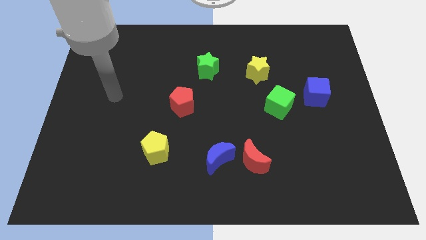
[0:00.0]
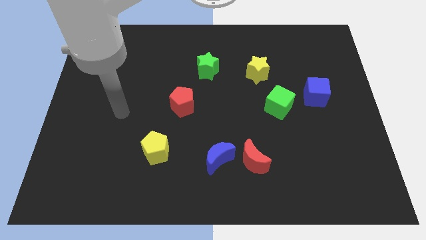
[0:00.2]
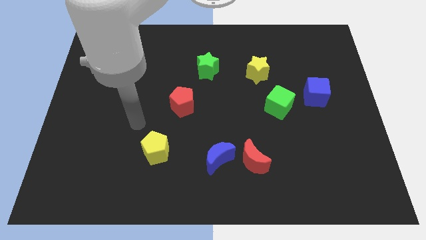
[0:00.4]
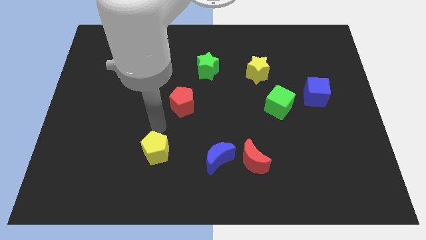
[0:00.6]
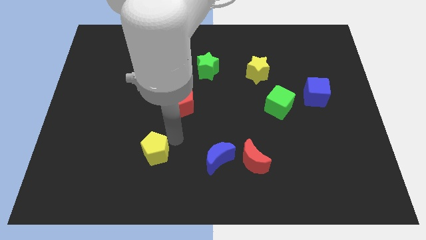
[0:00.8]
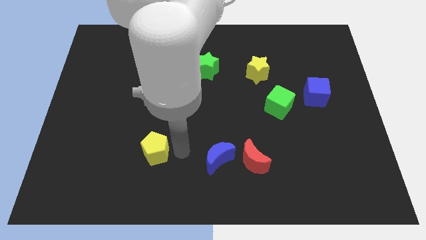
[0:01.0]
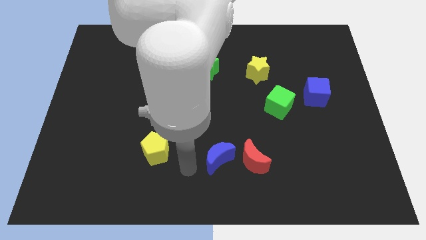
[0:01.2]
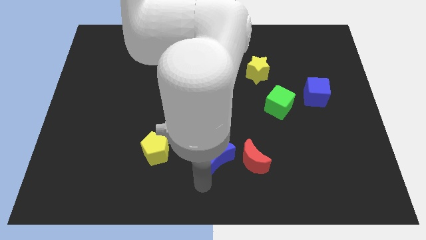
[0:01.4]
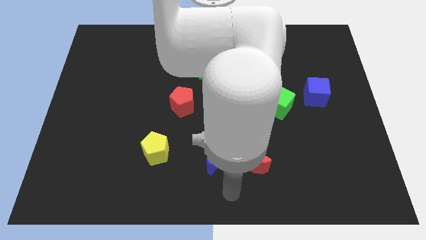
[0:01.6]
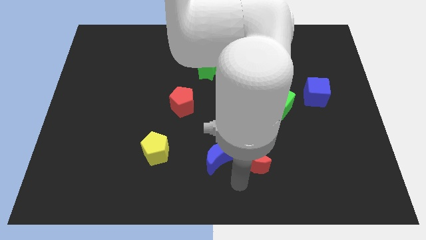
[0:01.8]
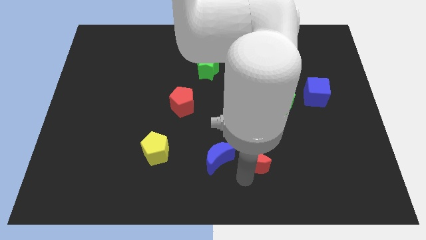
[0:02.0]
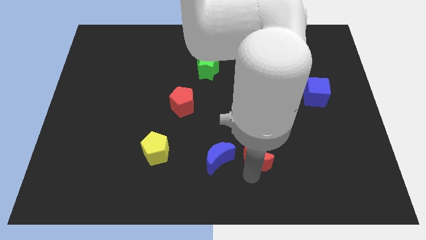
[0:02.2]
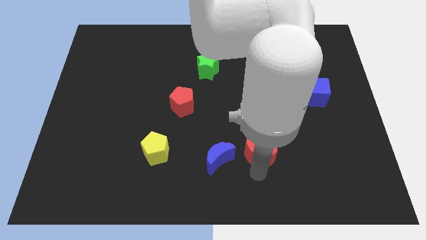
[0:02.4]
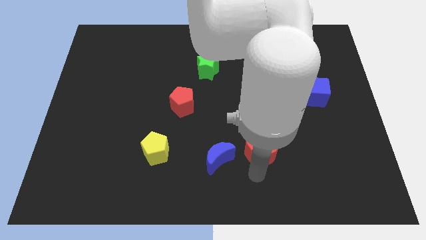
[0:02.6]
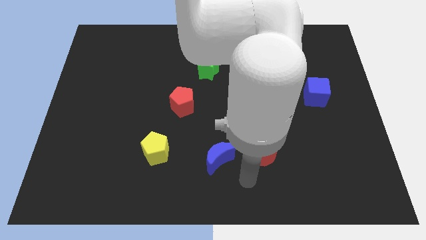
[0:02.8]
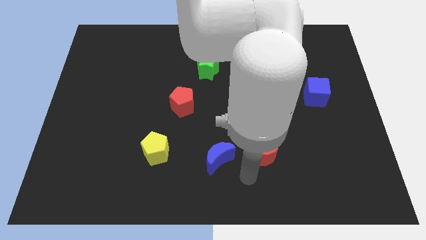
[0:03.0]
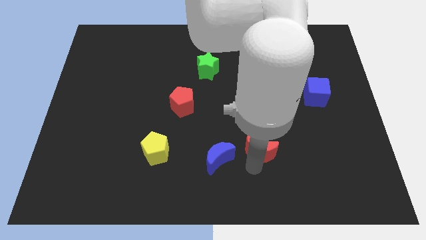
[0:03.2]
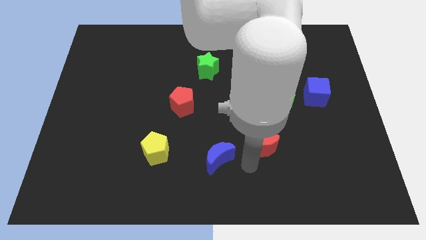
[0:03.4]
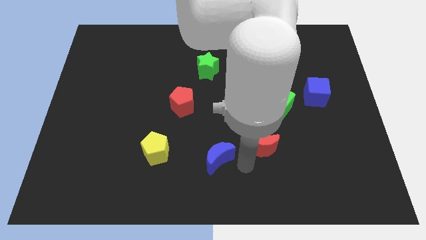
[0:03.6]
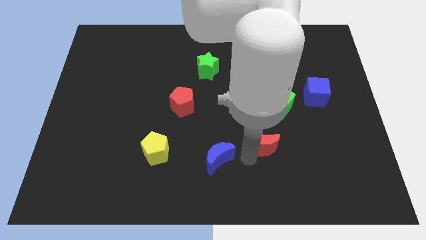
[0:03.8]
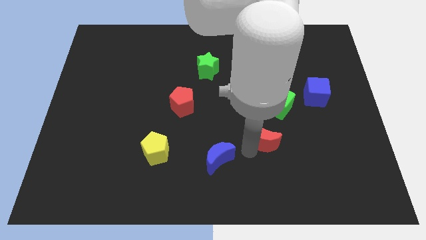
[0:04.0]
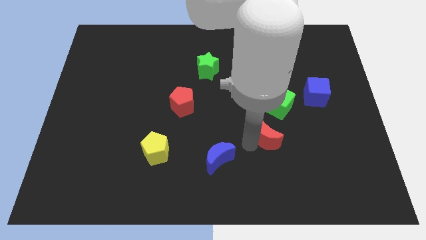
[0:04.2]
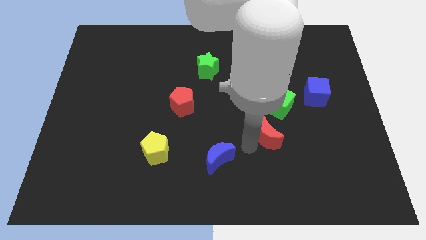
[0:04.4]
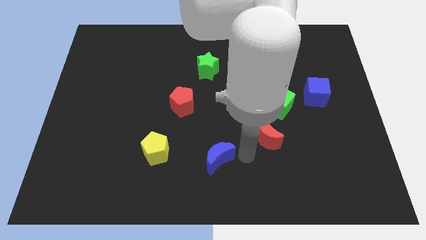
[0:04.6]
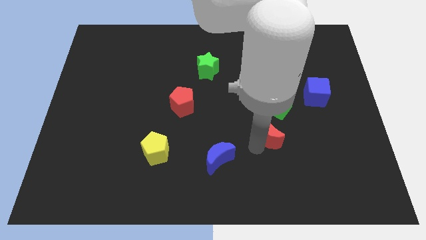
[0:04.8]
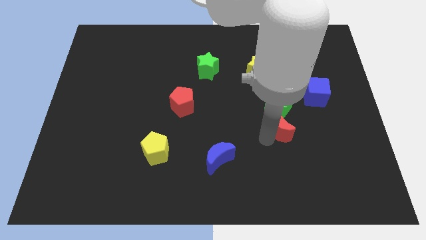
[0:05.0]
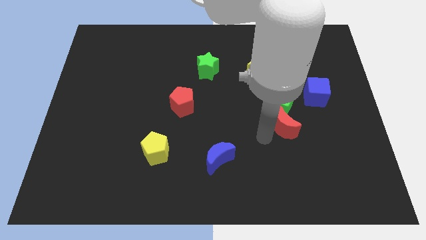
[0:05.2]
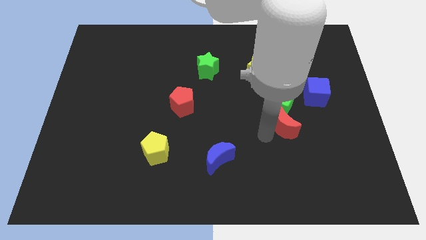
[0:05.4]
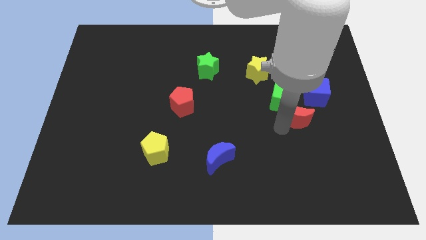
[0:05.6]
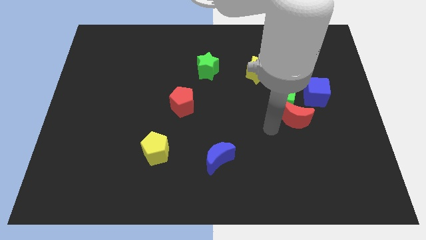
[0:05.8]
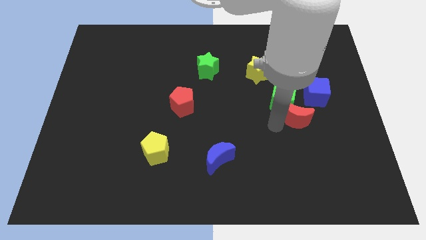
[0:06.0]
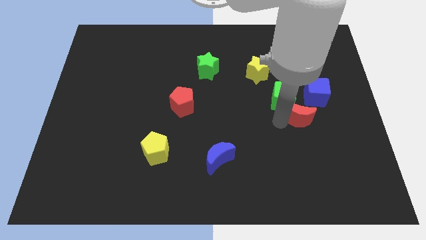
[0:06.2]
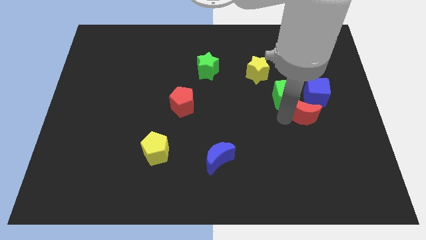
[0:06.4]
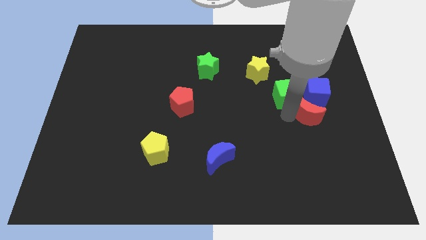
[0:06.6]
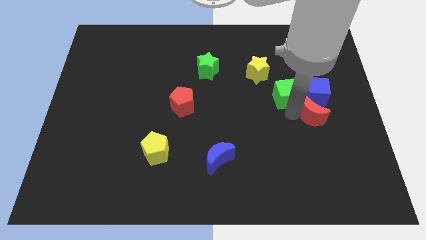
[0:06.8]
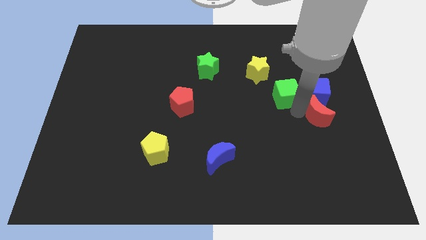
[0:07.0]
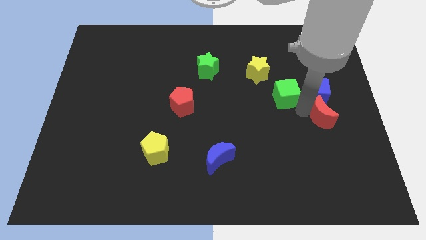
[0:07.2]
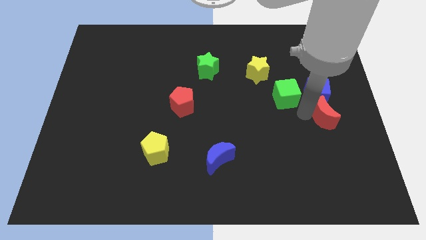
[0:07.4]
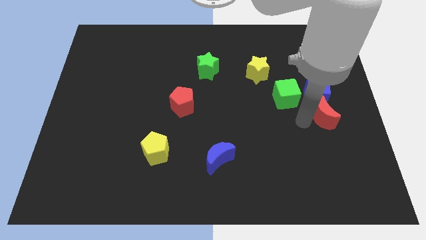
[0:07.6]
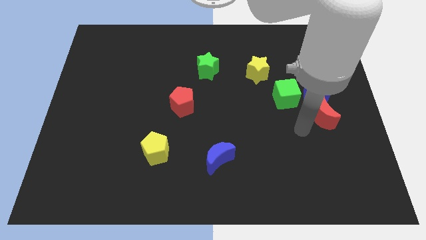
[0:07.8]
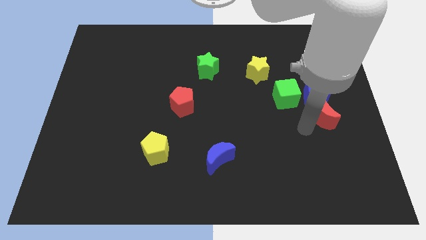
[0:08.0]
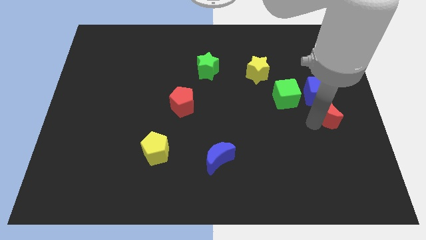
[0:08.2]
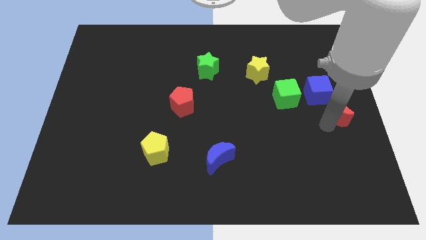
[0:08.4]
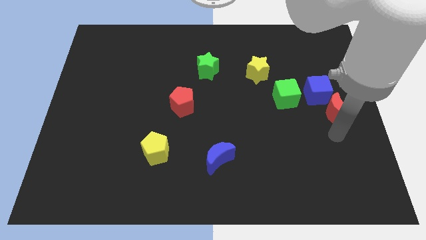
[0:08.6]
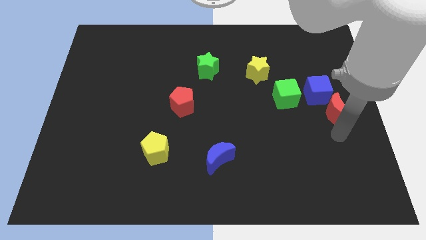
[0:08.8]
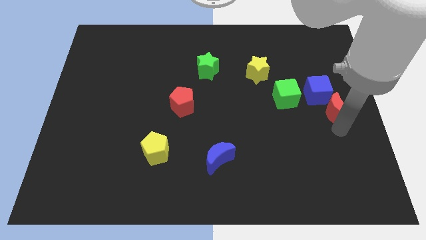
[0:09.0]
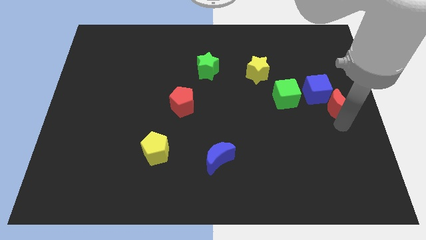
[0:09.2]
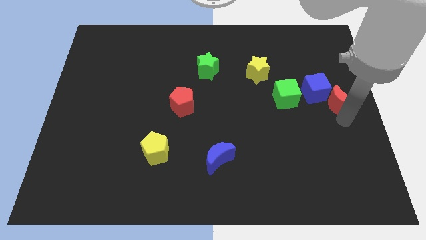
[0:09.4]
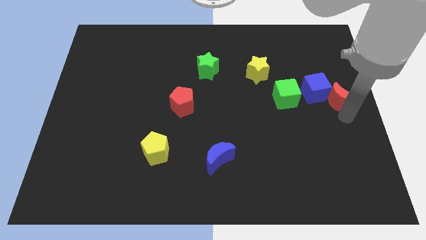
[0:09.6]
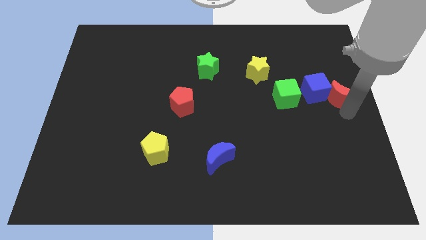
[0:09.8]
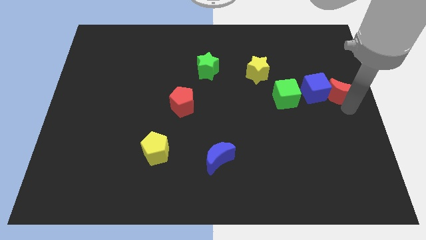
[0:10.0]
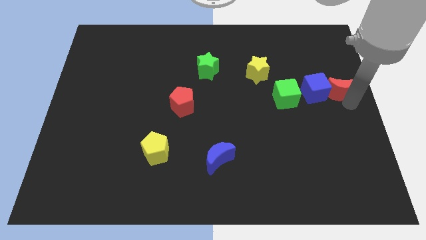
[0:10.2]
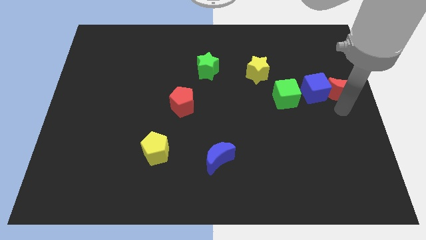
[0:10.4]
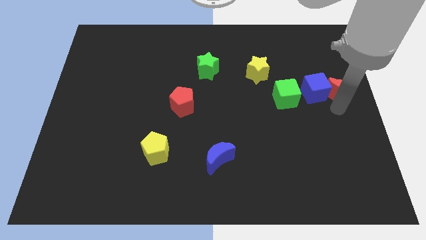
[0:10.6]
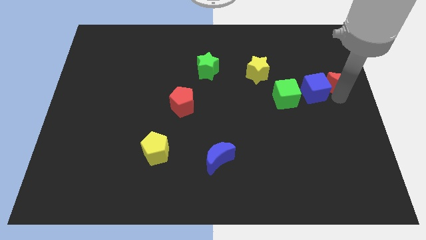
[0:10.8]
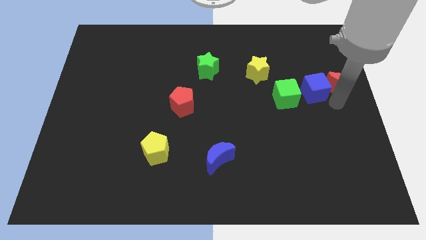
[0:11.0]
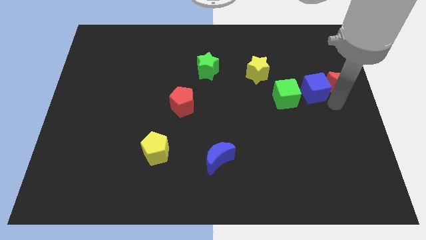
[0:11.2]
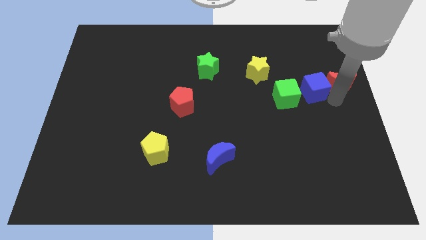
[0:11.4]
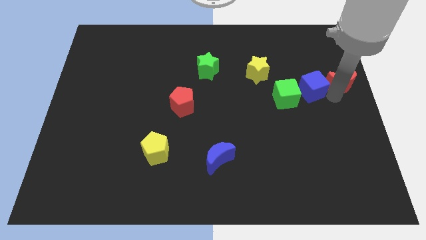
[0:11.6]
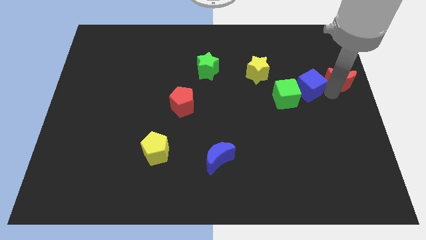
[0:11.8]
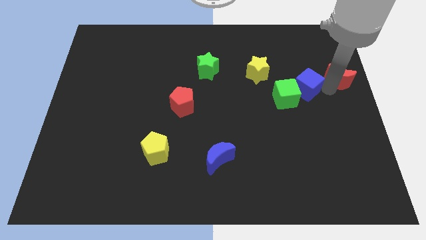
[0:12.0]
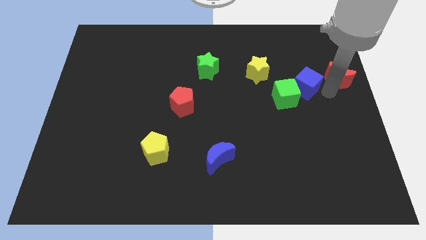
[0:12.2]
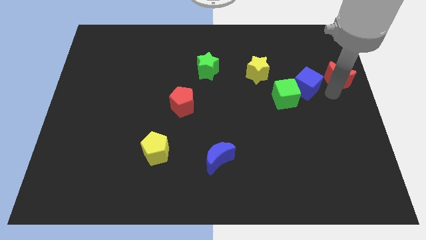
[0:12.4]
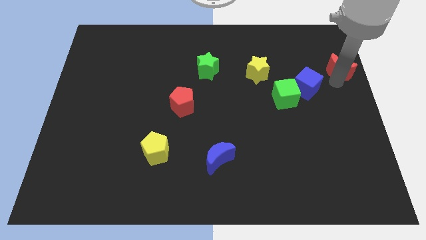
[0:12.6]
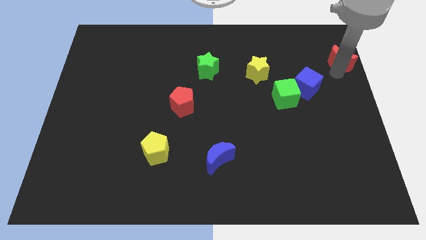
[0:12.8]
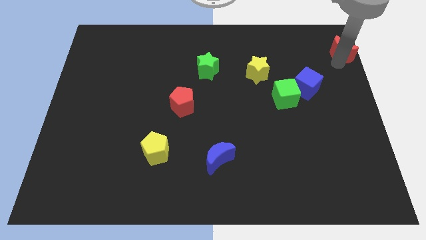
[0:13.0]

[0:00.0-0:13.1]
push the red moon to the top right

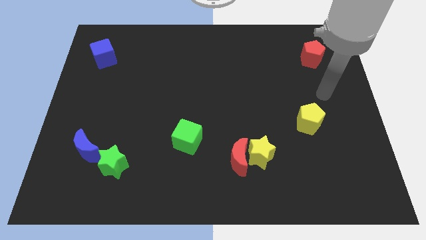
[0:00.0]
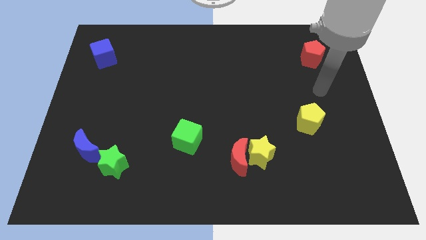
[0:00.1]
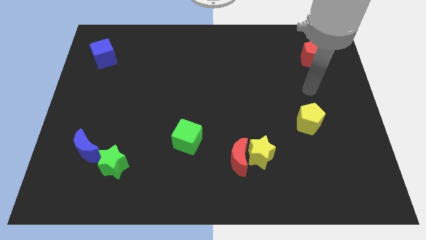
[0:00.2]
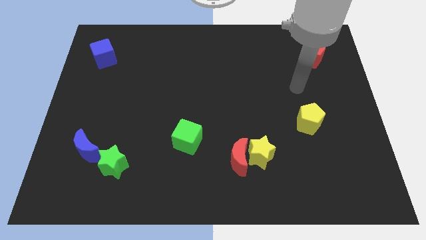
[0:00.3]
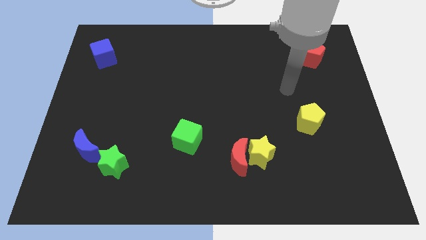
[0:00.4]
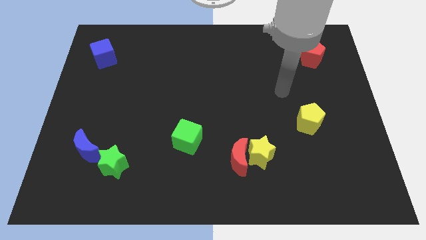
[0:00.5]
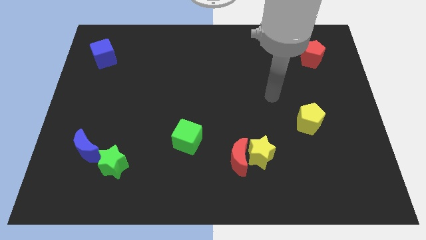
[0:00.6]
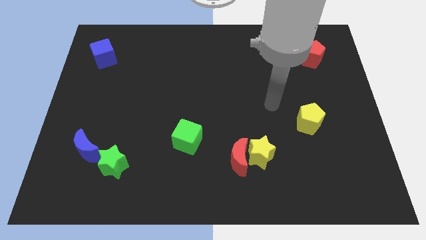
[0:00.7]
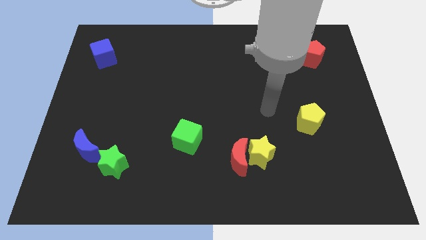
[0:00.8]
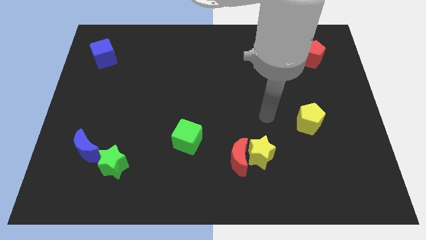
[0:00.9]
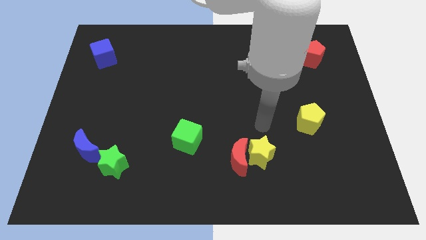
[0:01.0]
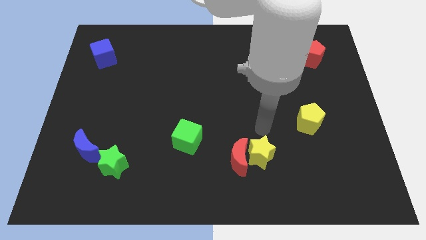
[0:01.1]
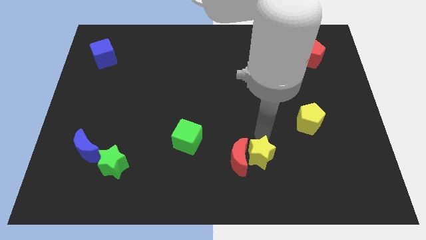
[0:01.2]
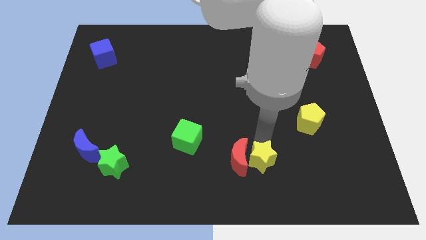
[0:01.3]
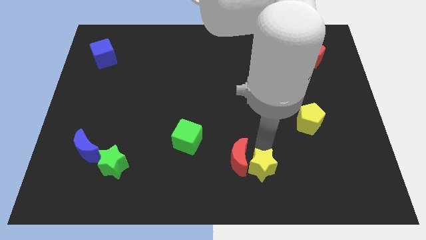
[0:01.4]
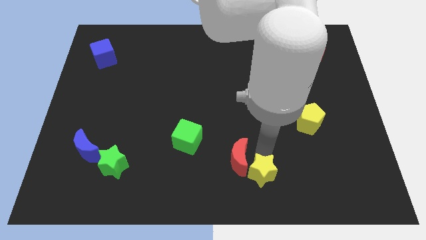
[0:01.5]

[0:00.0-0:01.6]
push the yellow star to the bottom
